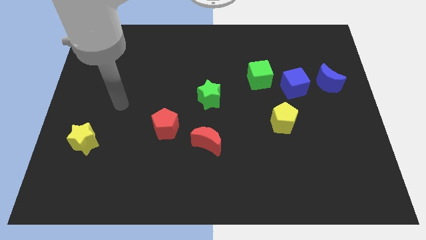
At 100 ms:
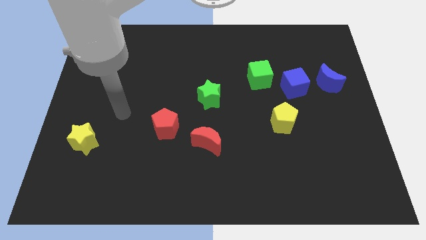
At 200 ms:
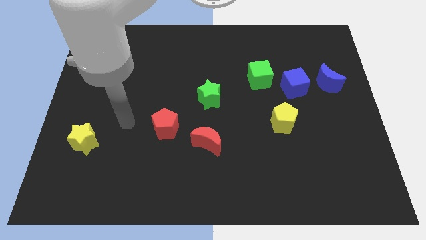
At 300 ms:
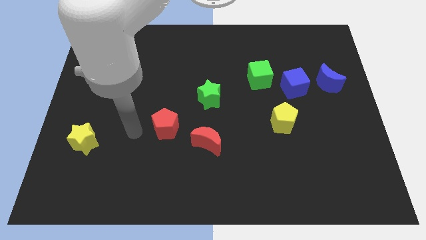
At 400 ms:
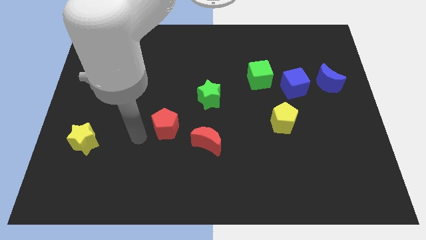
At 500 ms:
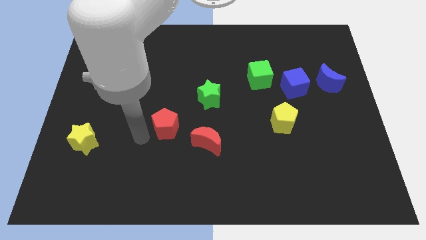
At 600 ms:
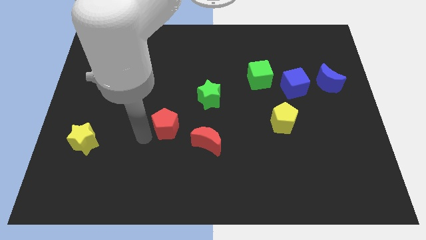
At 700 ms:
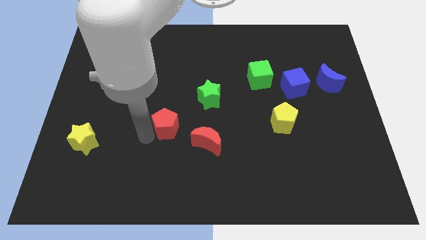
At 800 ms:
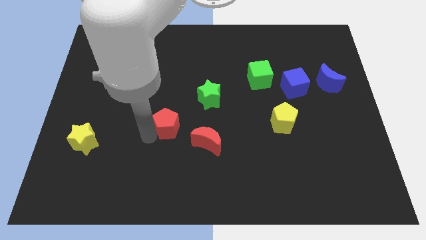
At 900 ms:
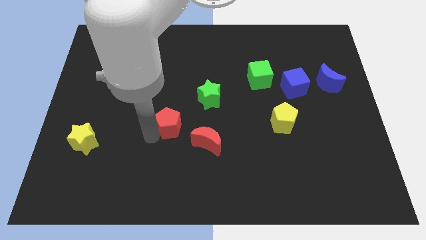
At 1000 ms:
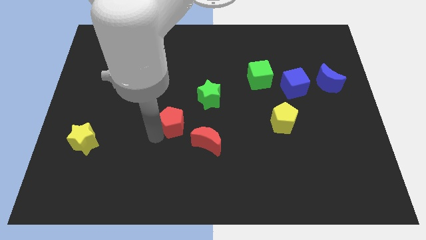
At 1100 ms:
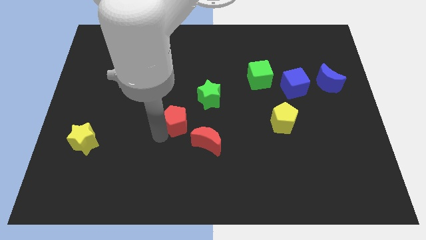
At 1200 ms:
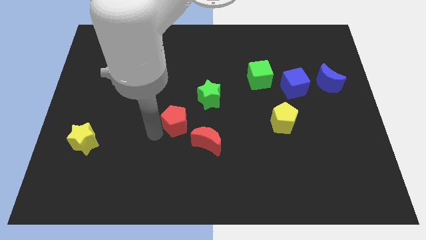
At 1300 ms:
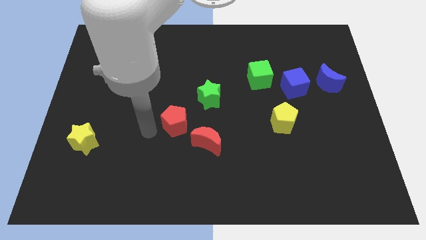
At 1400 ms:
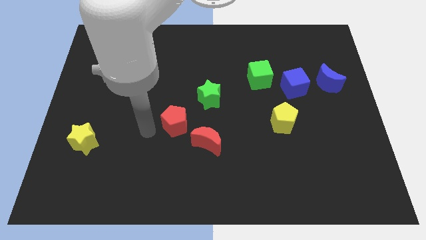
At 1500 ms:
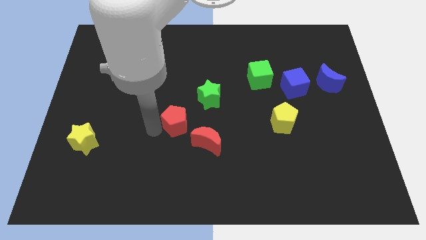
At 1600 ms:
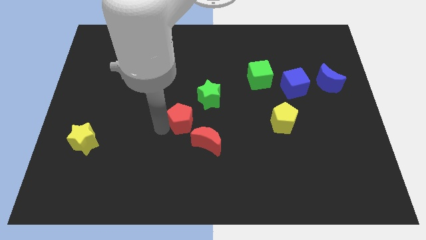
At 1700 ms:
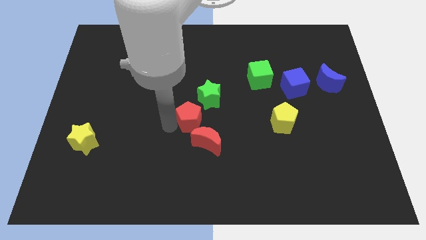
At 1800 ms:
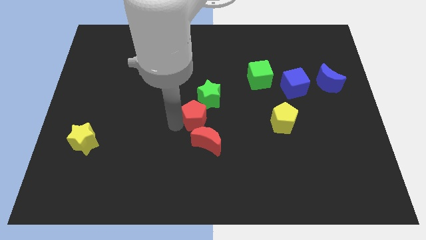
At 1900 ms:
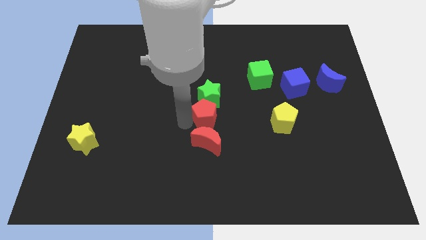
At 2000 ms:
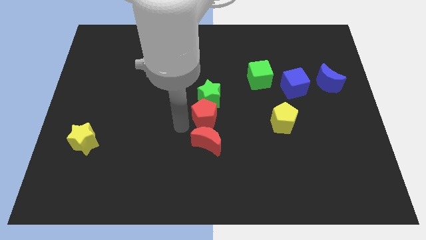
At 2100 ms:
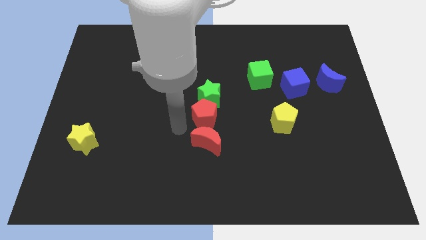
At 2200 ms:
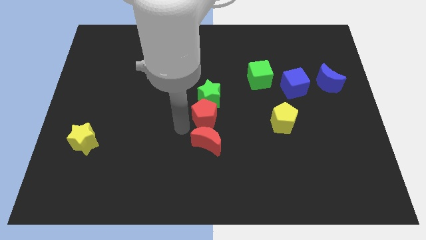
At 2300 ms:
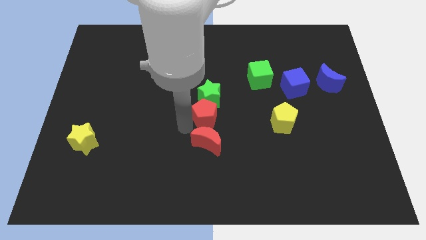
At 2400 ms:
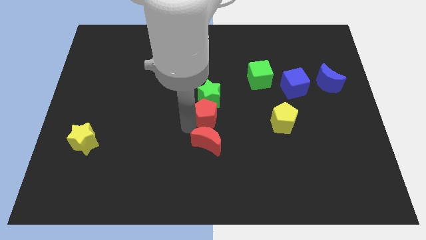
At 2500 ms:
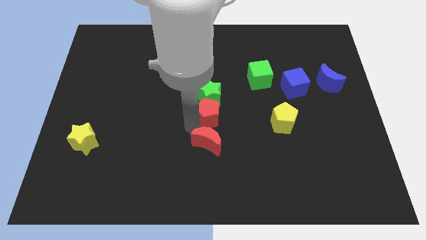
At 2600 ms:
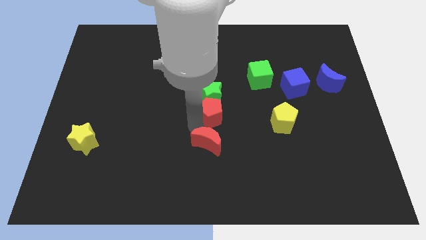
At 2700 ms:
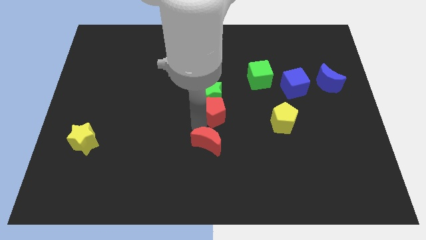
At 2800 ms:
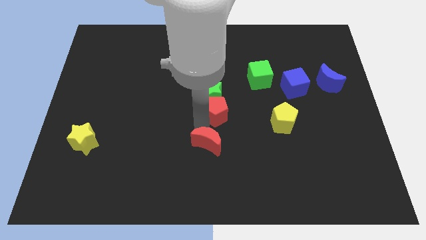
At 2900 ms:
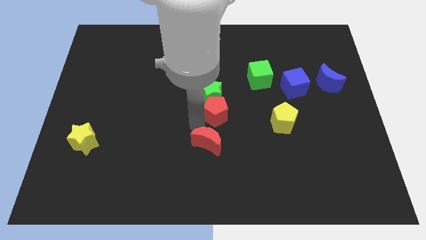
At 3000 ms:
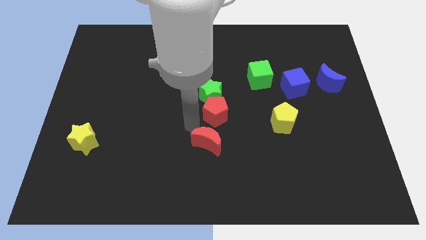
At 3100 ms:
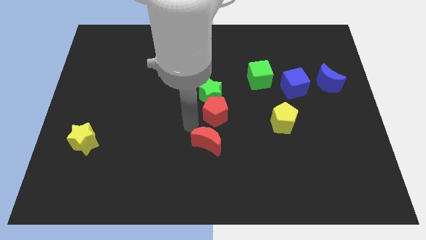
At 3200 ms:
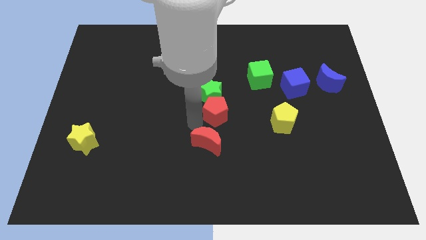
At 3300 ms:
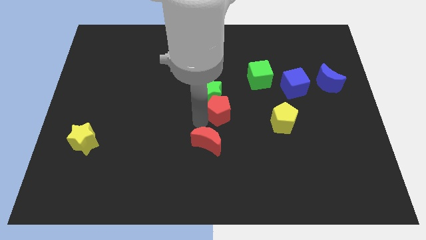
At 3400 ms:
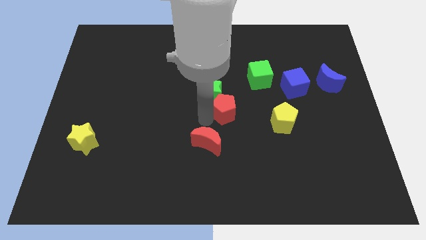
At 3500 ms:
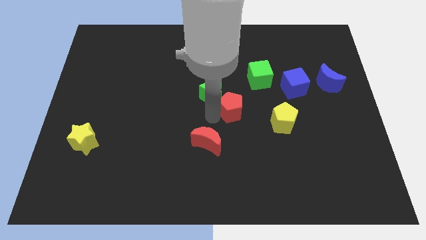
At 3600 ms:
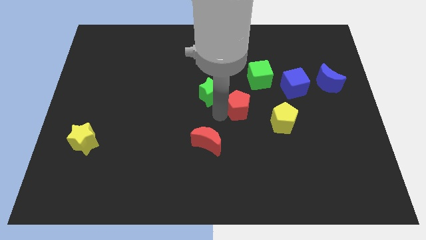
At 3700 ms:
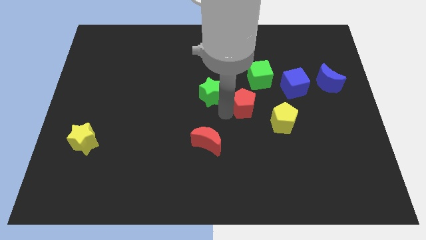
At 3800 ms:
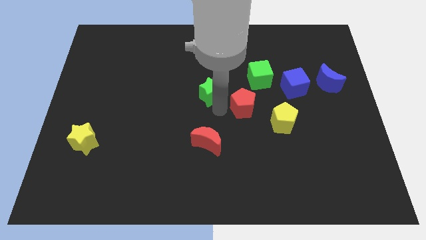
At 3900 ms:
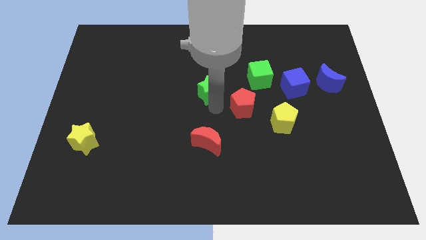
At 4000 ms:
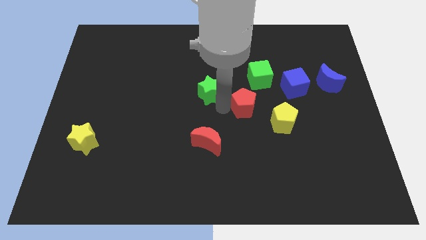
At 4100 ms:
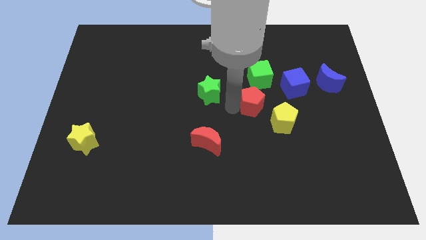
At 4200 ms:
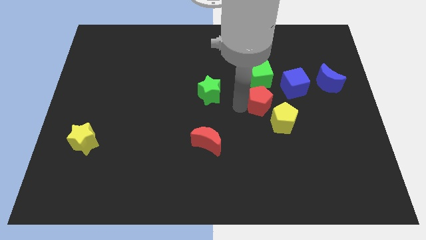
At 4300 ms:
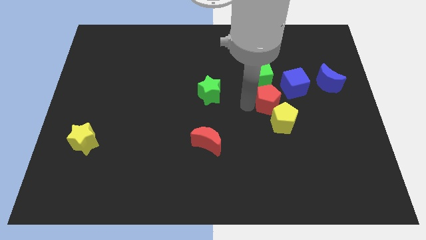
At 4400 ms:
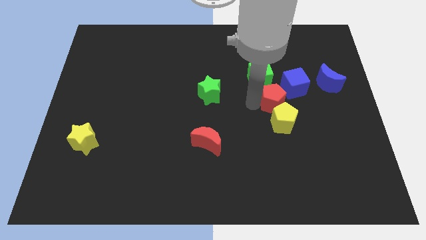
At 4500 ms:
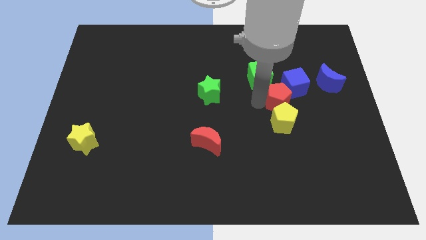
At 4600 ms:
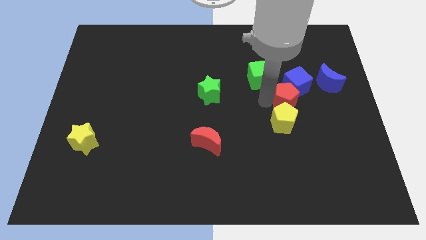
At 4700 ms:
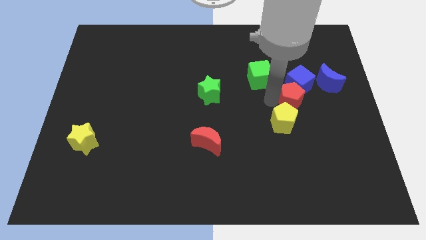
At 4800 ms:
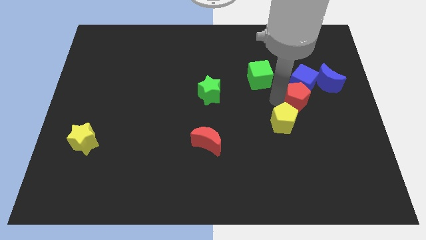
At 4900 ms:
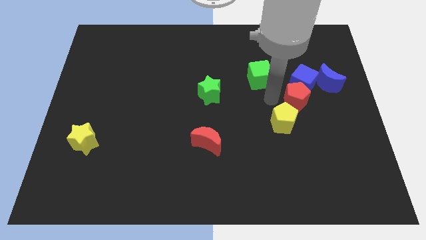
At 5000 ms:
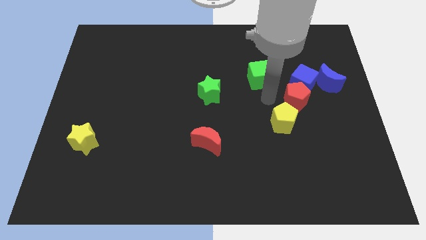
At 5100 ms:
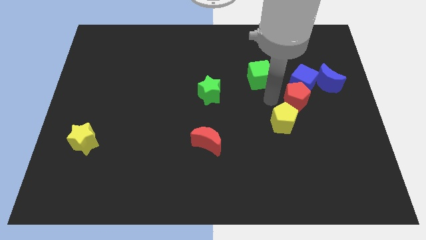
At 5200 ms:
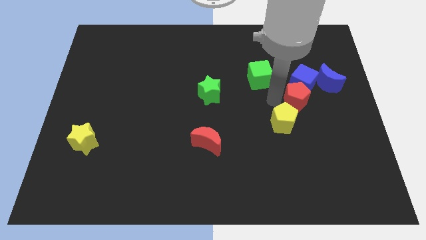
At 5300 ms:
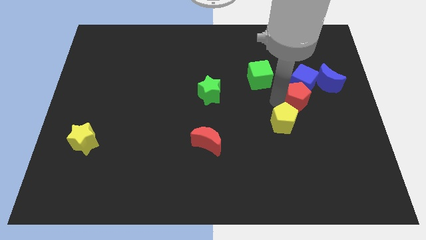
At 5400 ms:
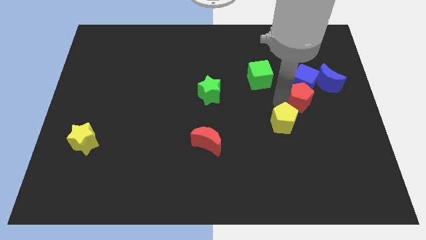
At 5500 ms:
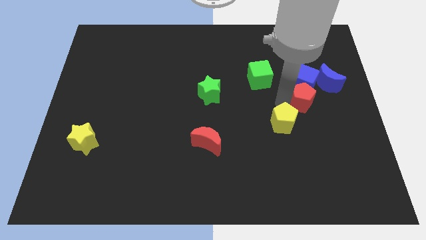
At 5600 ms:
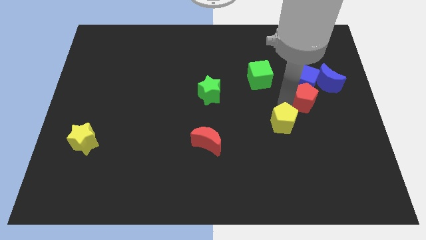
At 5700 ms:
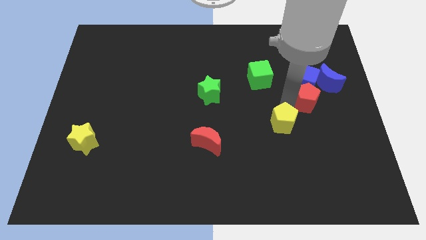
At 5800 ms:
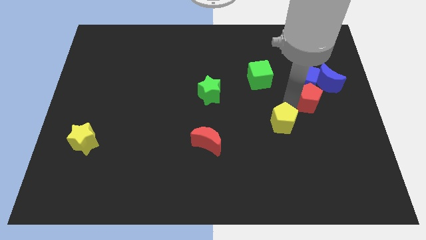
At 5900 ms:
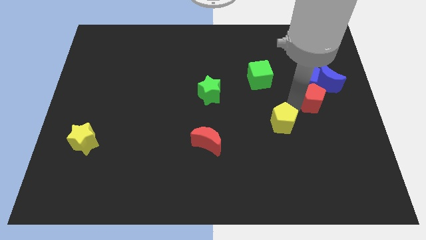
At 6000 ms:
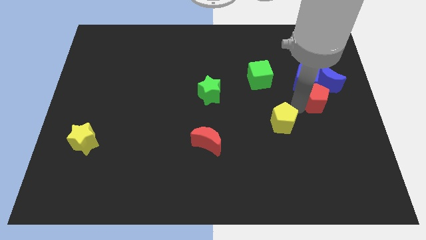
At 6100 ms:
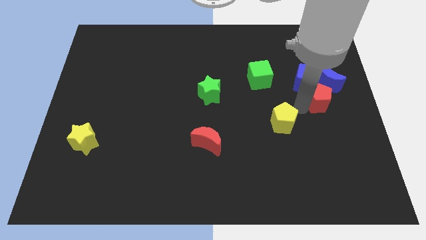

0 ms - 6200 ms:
slide the red pentagon to the right side of the board
